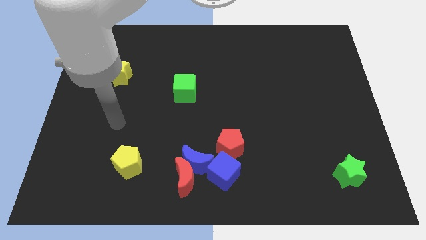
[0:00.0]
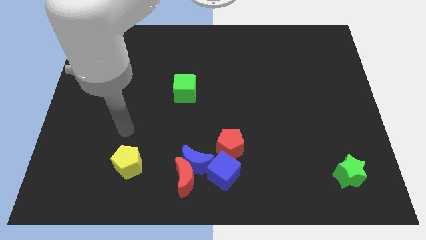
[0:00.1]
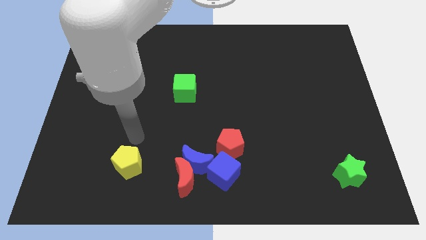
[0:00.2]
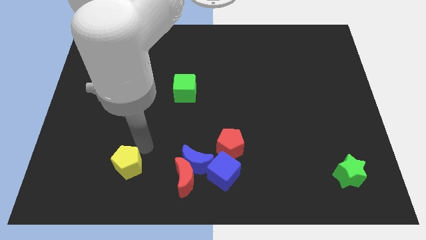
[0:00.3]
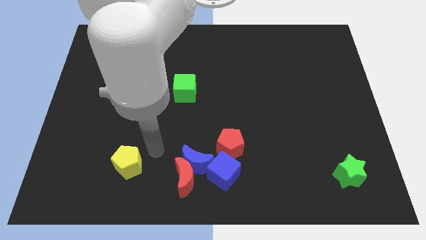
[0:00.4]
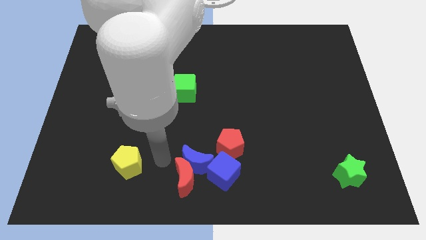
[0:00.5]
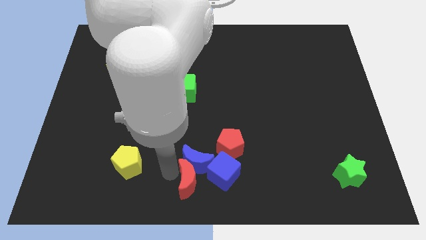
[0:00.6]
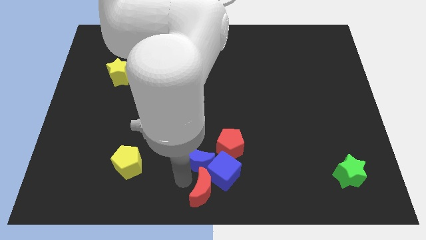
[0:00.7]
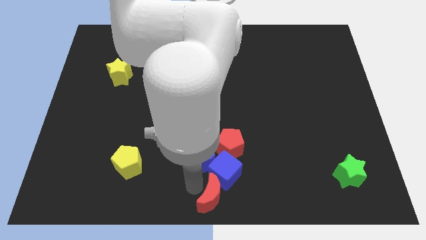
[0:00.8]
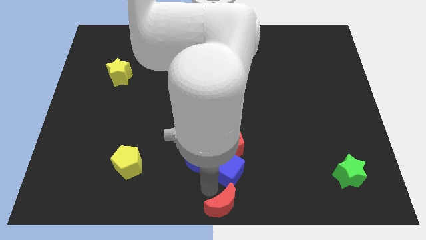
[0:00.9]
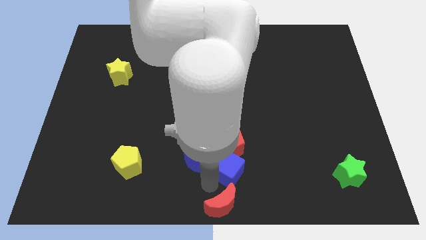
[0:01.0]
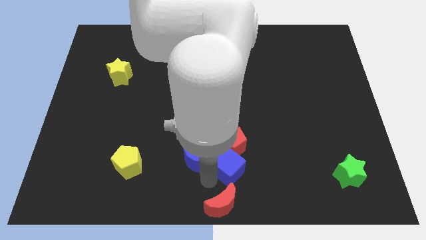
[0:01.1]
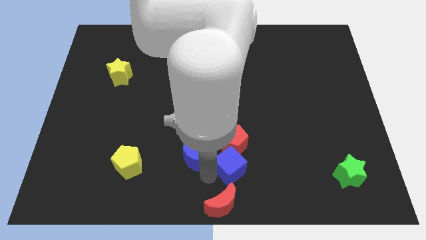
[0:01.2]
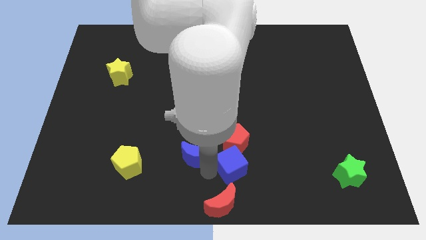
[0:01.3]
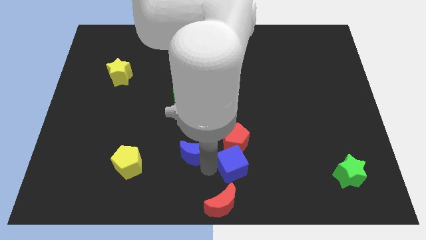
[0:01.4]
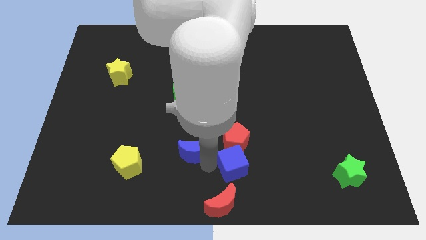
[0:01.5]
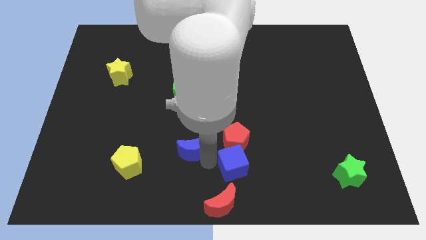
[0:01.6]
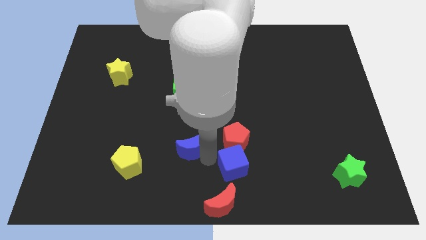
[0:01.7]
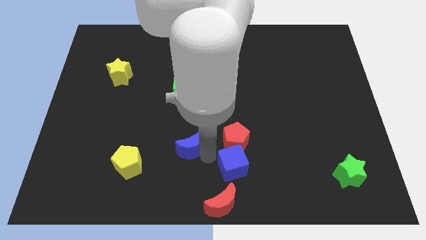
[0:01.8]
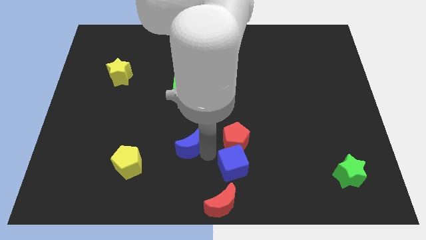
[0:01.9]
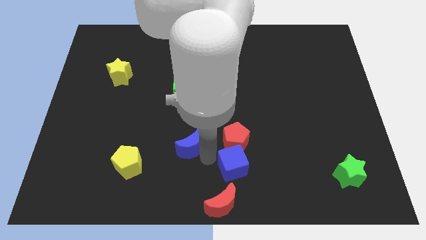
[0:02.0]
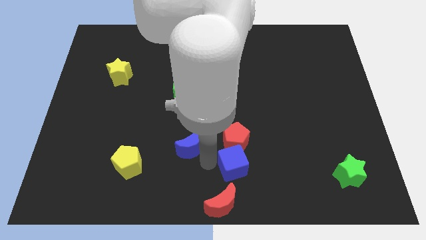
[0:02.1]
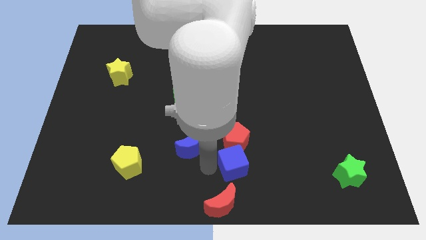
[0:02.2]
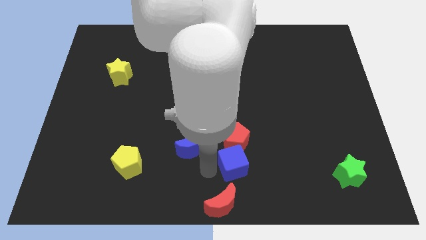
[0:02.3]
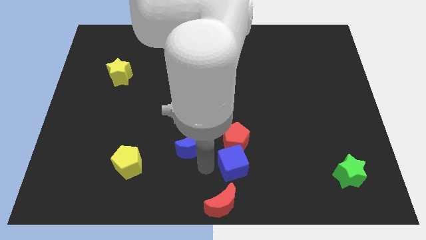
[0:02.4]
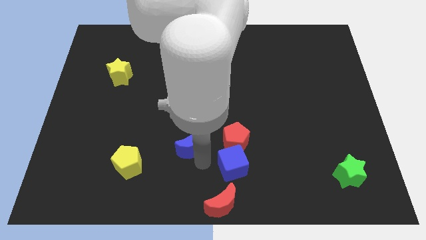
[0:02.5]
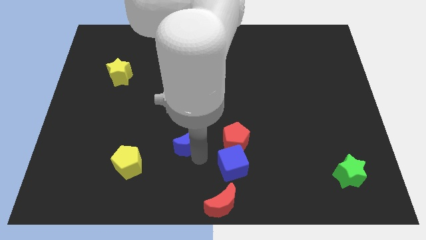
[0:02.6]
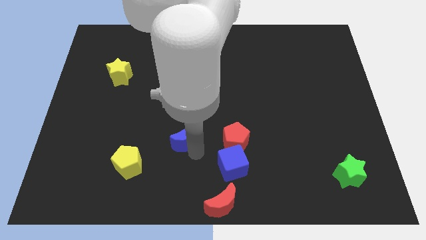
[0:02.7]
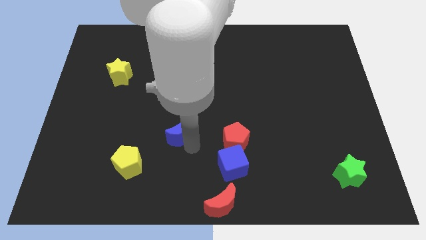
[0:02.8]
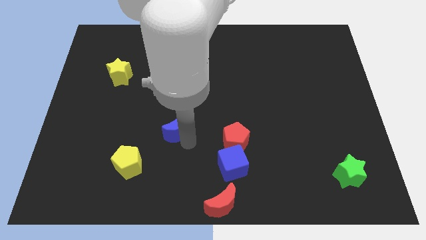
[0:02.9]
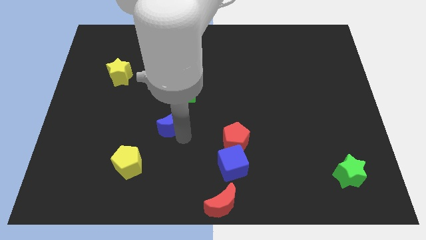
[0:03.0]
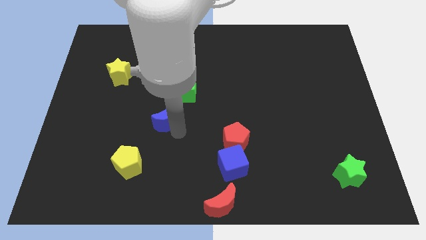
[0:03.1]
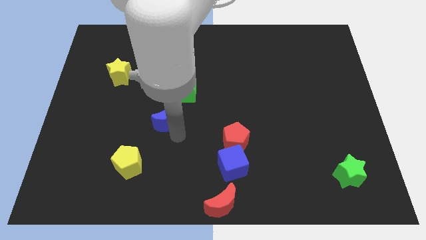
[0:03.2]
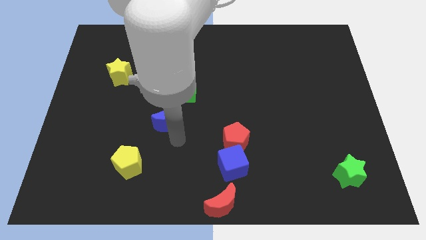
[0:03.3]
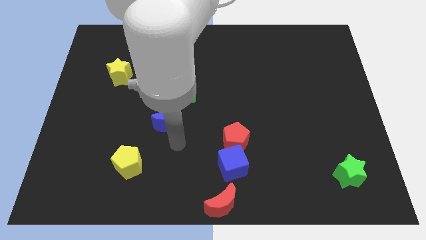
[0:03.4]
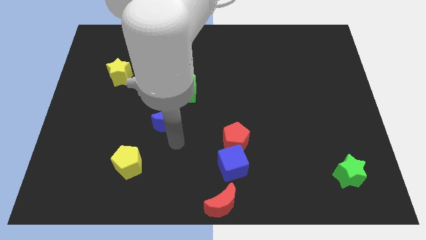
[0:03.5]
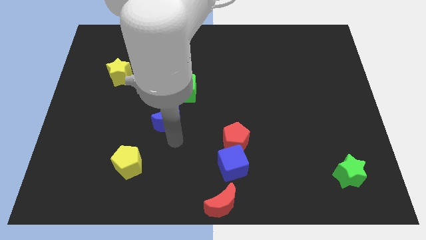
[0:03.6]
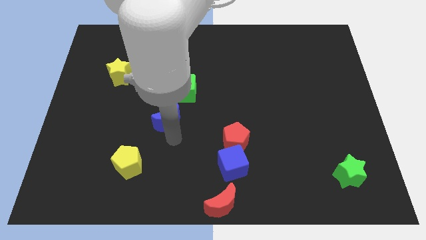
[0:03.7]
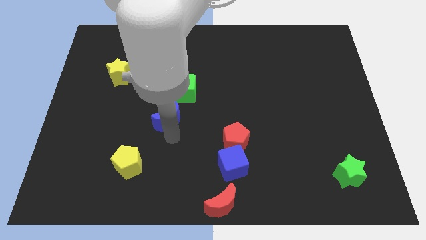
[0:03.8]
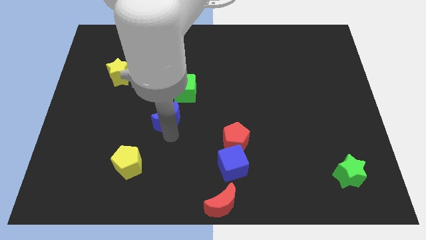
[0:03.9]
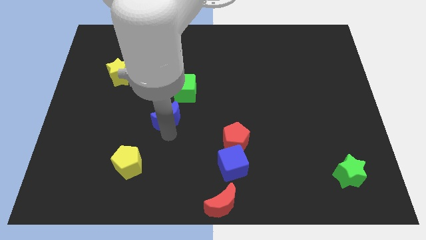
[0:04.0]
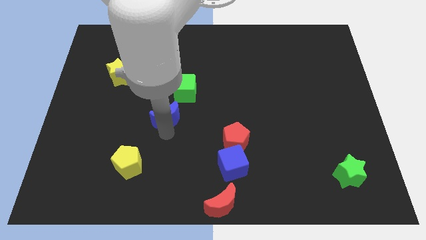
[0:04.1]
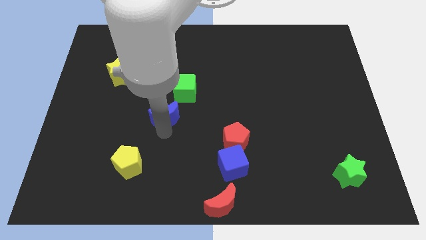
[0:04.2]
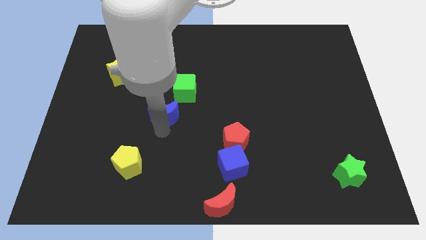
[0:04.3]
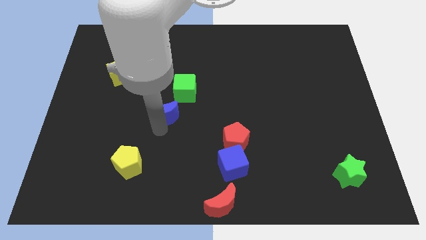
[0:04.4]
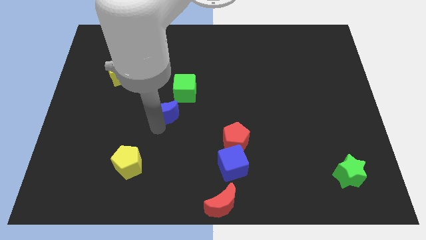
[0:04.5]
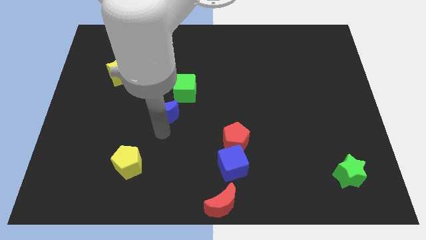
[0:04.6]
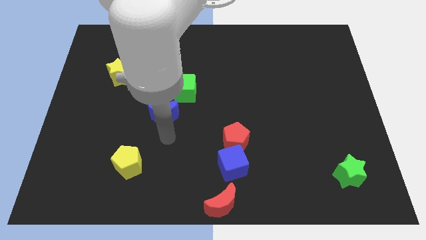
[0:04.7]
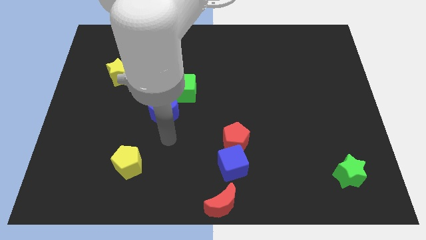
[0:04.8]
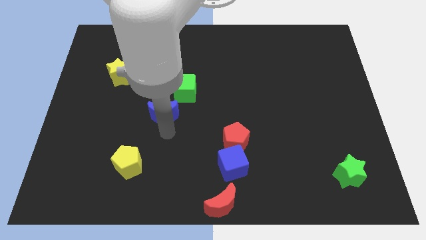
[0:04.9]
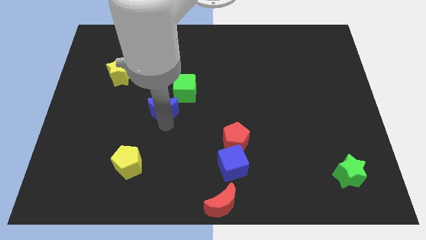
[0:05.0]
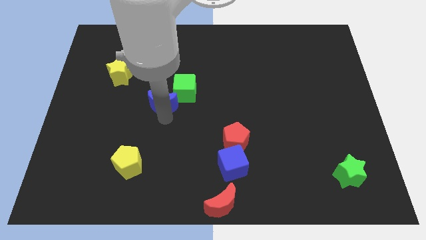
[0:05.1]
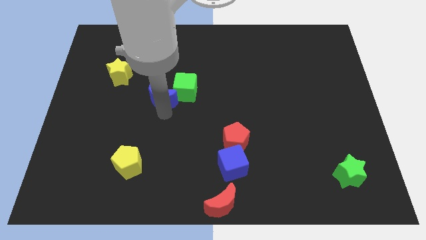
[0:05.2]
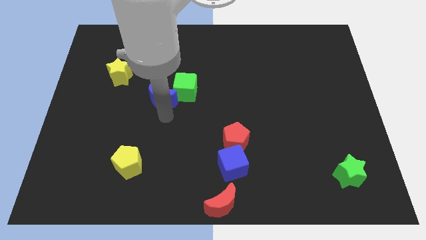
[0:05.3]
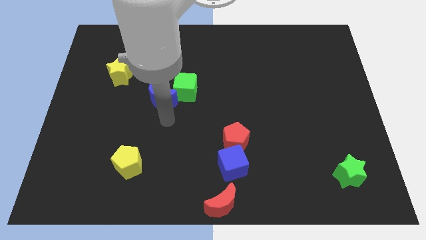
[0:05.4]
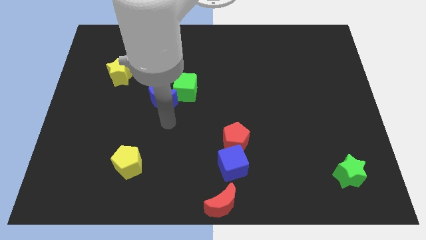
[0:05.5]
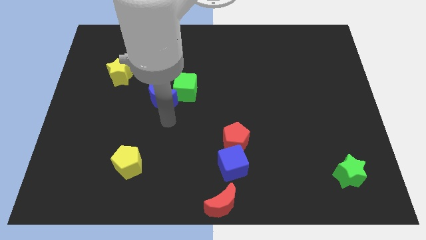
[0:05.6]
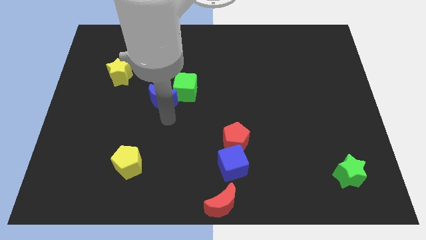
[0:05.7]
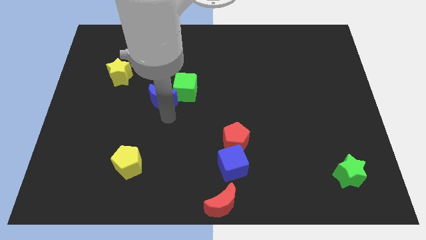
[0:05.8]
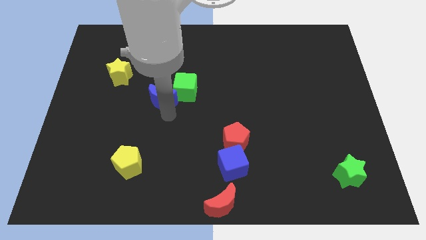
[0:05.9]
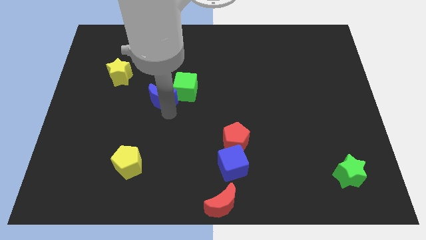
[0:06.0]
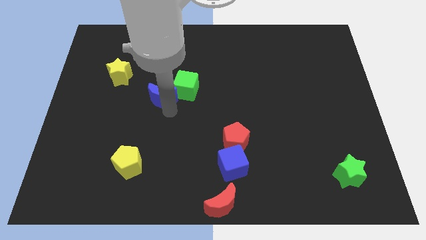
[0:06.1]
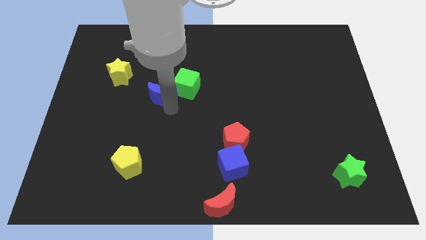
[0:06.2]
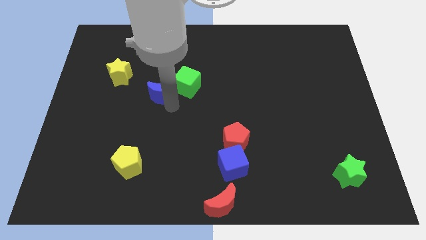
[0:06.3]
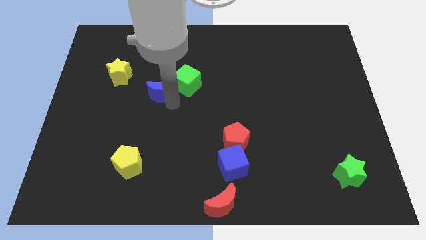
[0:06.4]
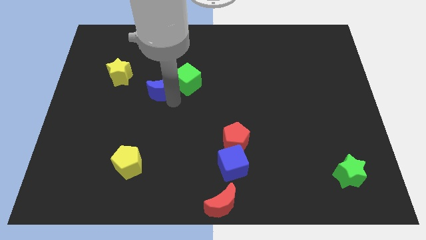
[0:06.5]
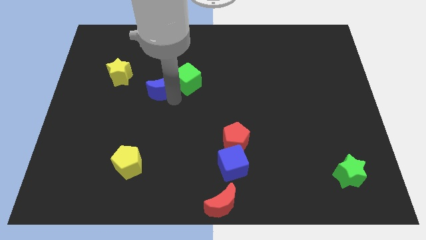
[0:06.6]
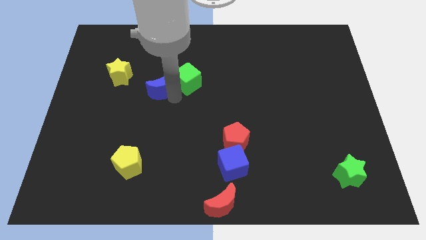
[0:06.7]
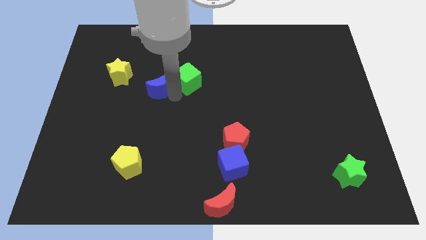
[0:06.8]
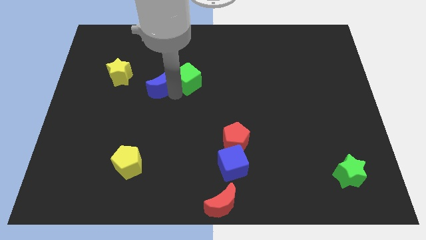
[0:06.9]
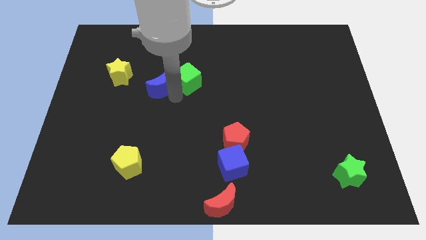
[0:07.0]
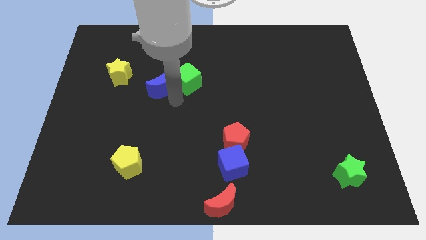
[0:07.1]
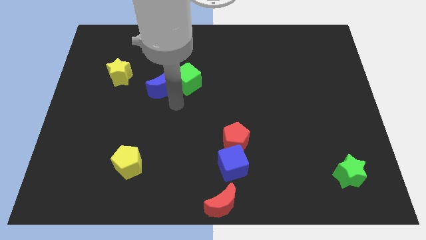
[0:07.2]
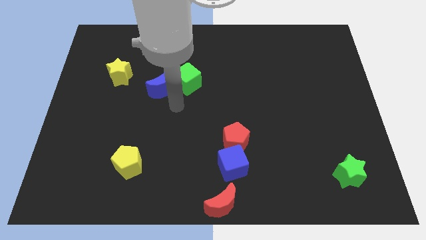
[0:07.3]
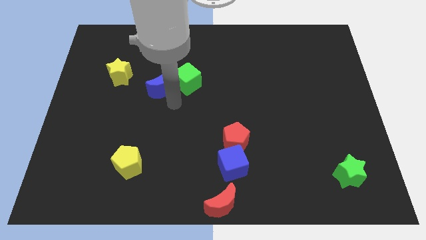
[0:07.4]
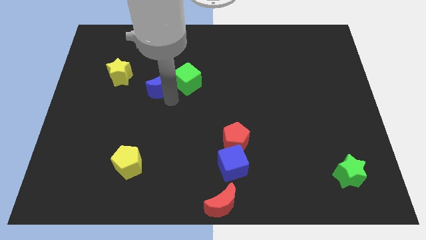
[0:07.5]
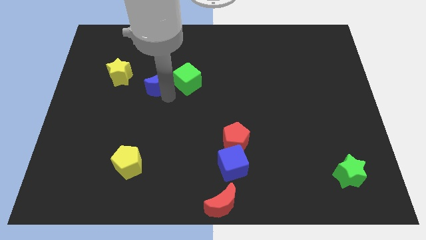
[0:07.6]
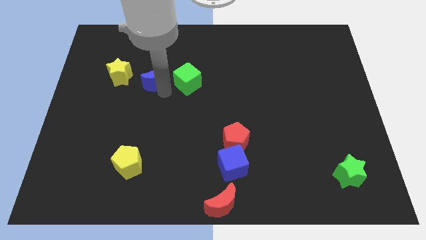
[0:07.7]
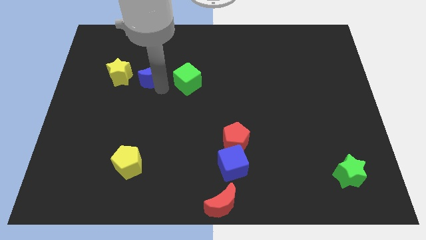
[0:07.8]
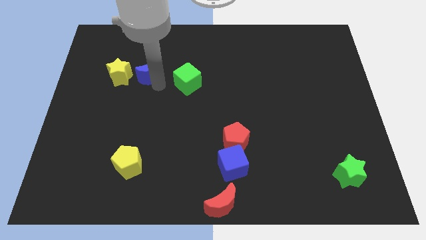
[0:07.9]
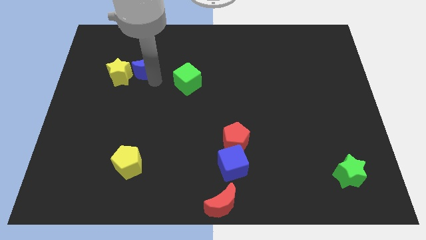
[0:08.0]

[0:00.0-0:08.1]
move the blue moon to the top right of the yellow star
